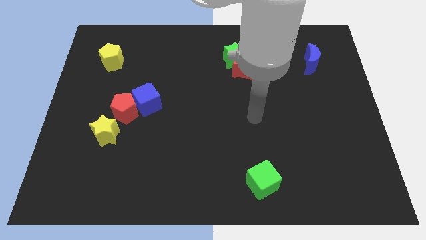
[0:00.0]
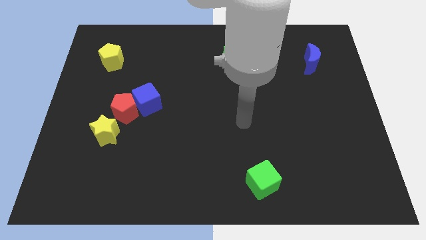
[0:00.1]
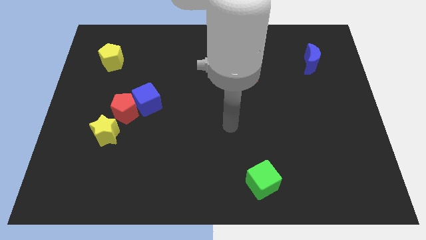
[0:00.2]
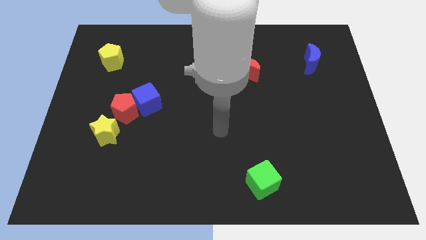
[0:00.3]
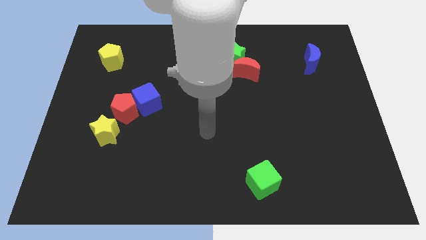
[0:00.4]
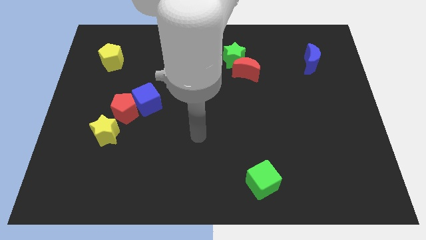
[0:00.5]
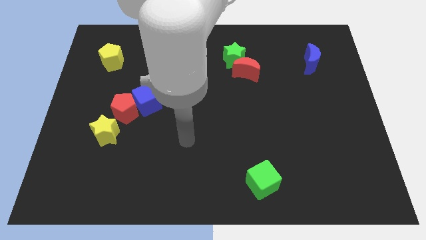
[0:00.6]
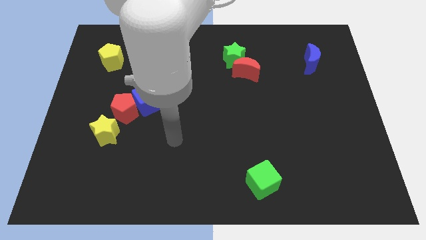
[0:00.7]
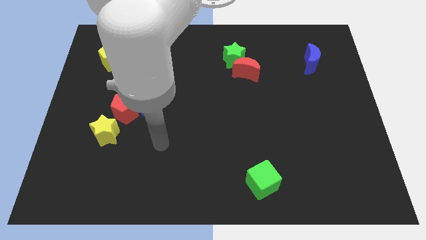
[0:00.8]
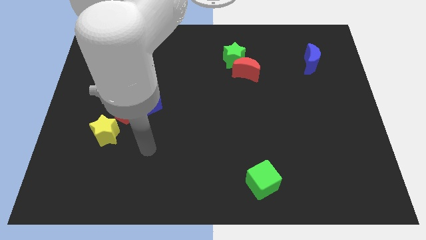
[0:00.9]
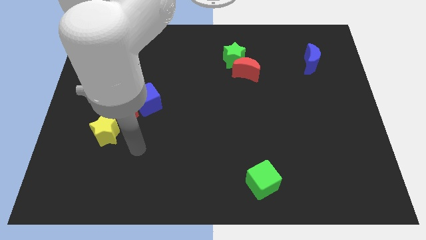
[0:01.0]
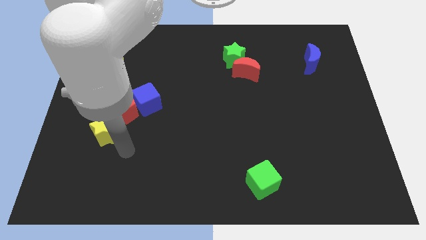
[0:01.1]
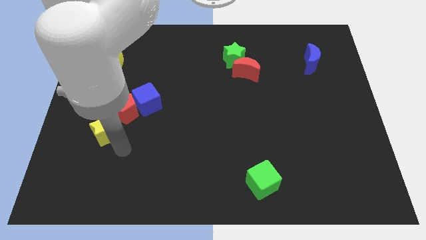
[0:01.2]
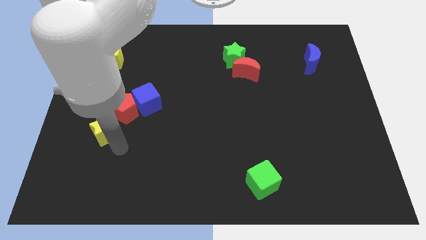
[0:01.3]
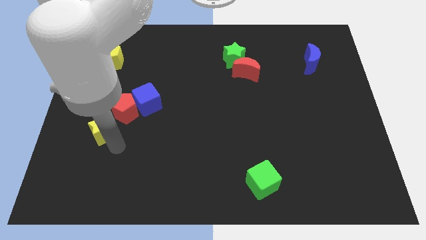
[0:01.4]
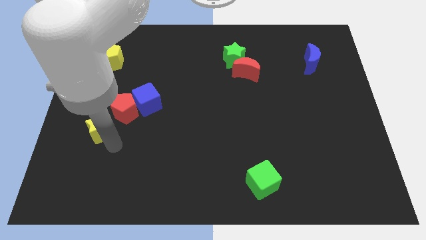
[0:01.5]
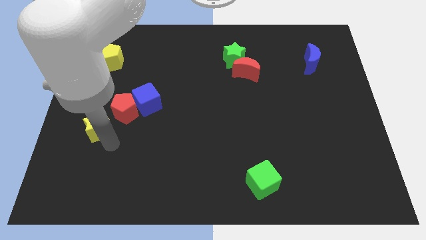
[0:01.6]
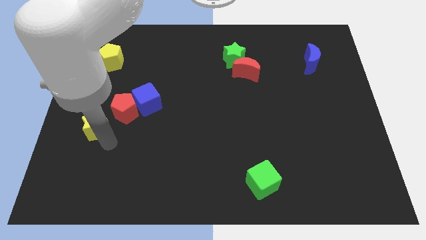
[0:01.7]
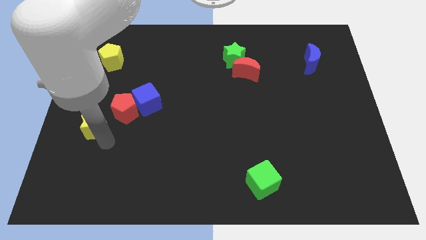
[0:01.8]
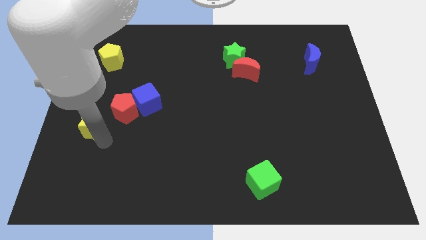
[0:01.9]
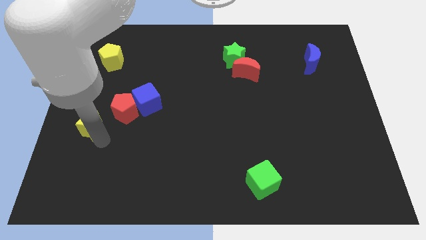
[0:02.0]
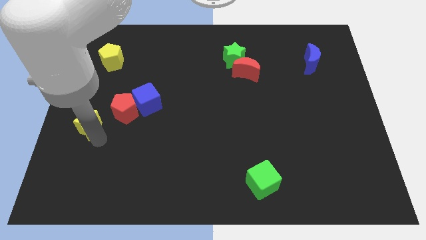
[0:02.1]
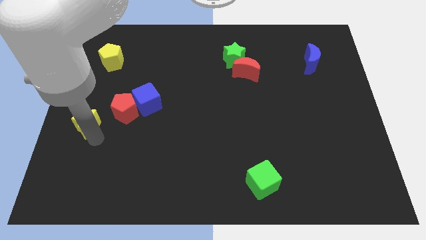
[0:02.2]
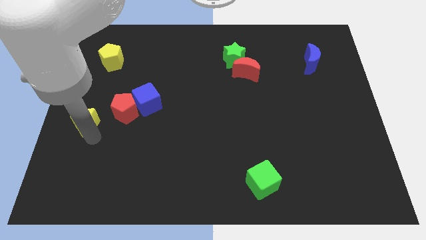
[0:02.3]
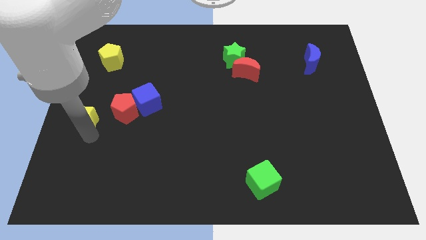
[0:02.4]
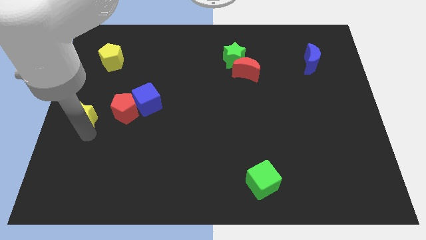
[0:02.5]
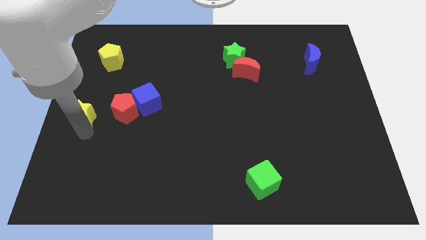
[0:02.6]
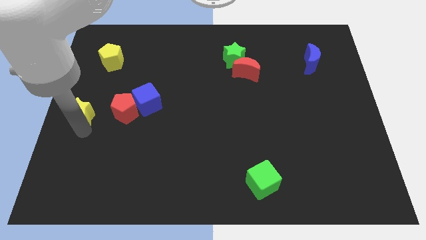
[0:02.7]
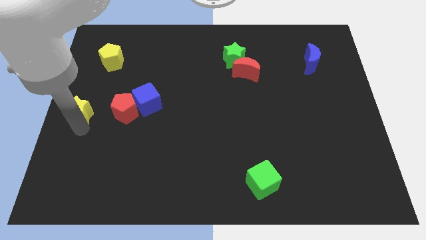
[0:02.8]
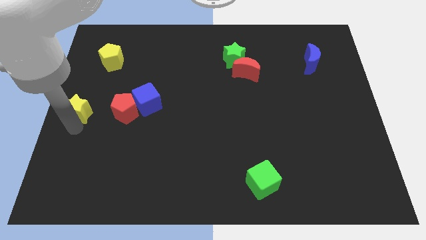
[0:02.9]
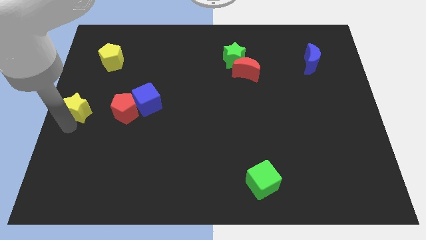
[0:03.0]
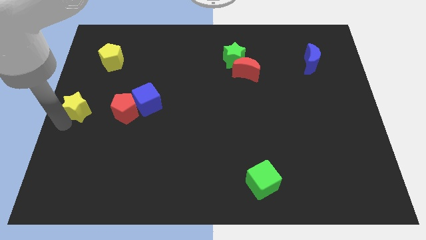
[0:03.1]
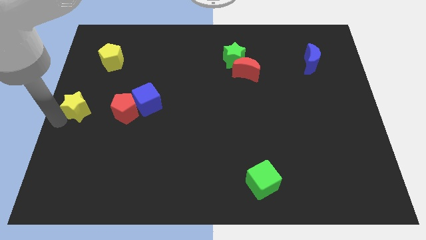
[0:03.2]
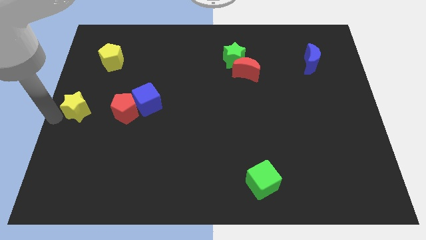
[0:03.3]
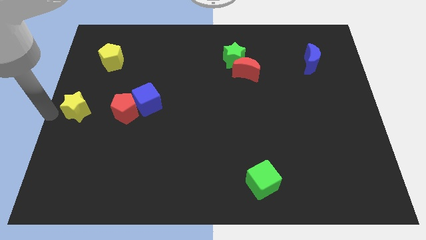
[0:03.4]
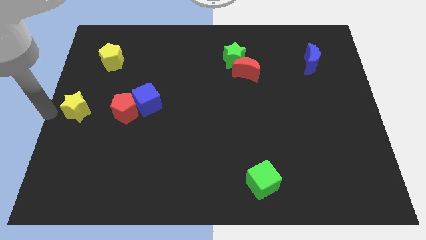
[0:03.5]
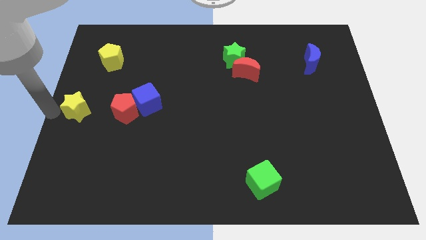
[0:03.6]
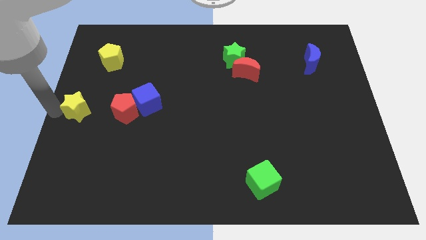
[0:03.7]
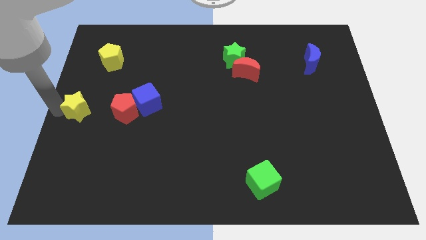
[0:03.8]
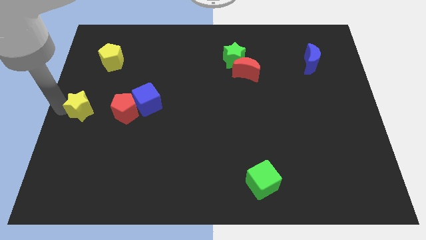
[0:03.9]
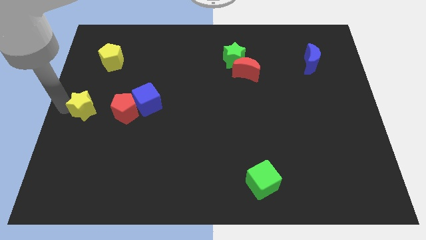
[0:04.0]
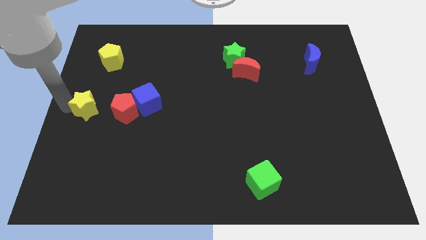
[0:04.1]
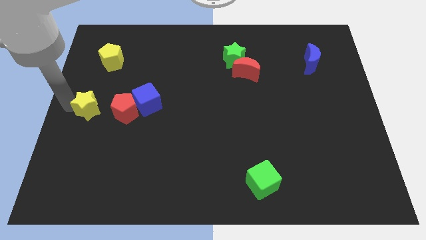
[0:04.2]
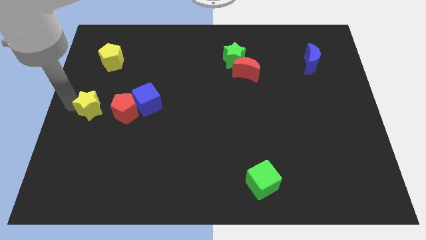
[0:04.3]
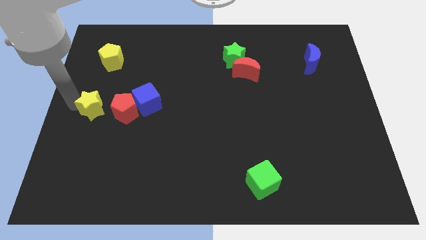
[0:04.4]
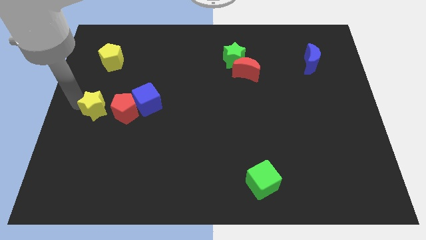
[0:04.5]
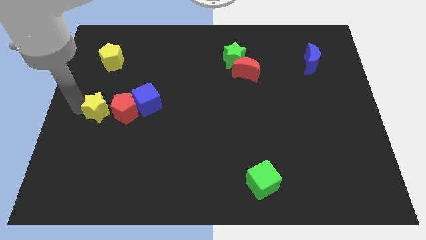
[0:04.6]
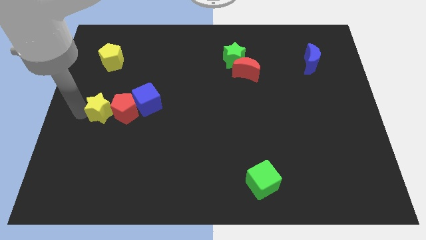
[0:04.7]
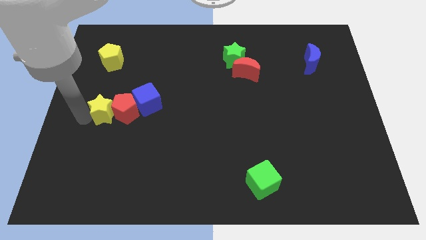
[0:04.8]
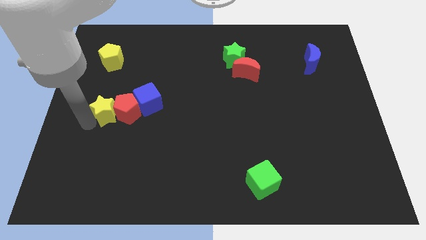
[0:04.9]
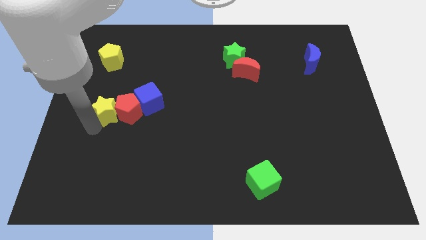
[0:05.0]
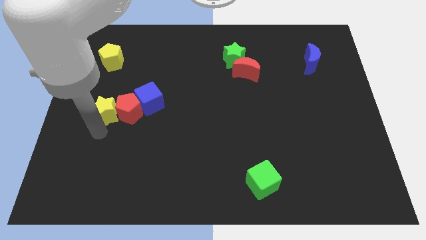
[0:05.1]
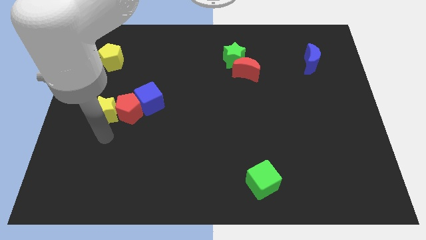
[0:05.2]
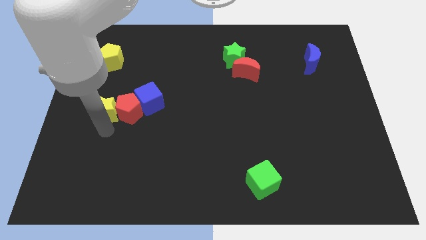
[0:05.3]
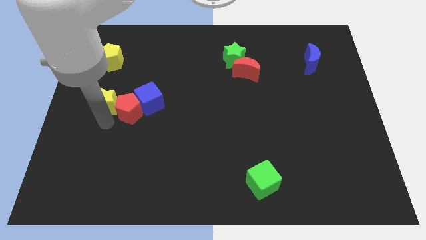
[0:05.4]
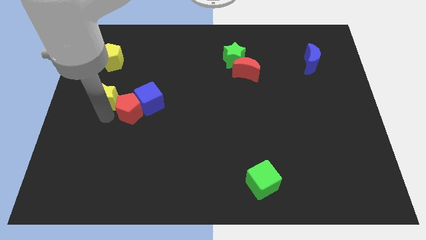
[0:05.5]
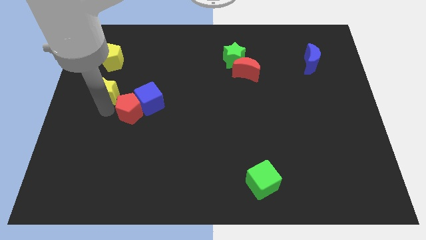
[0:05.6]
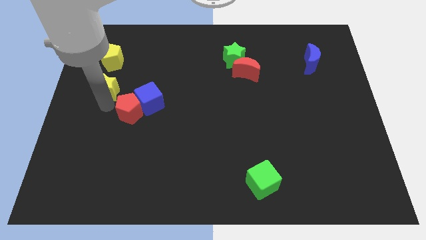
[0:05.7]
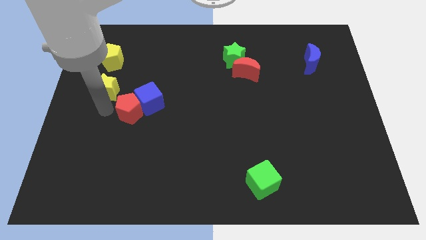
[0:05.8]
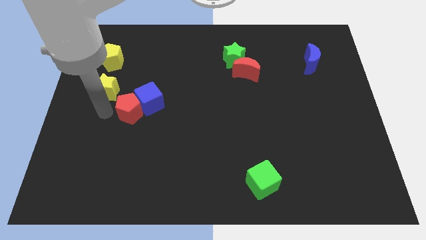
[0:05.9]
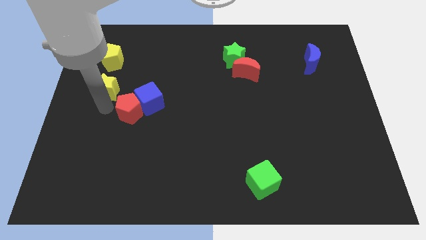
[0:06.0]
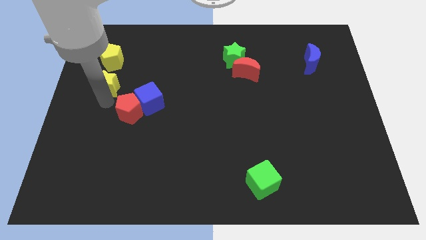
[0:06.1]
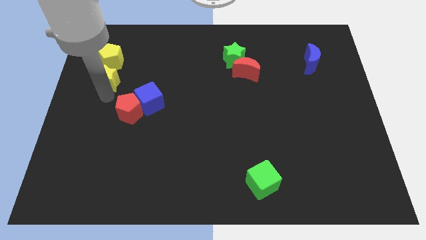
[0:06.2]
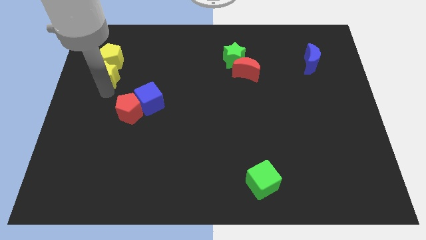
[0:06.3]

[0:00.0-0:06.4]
slide the yellow star next to the yellow pentagon
